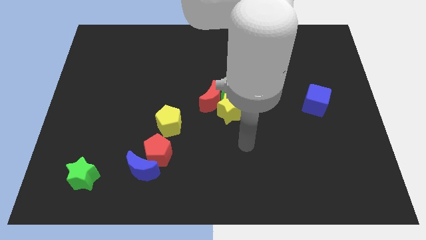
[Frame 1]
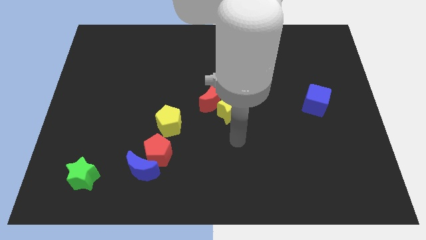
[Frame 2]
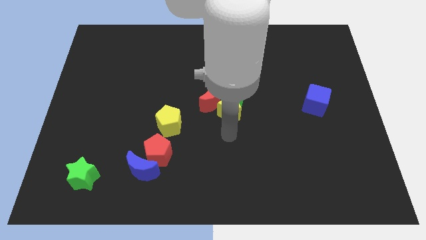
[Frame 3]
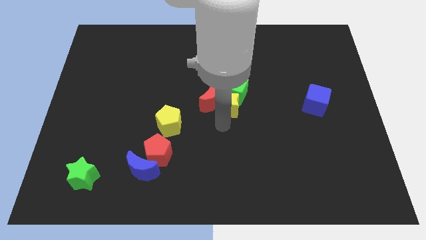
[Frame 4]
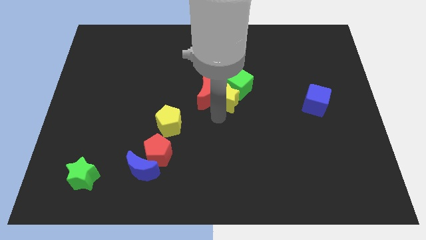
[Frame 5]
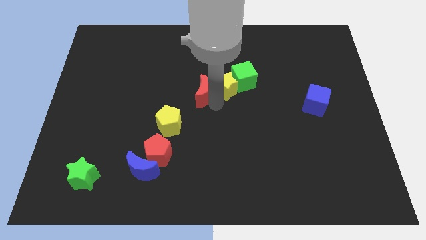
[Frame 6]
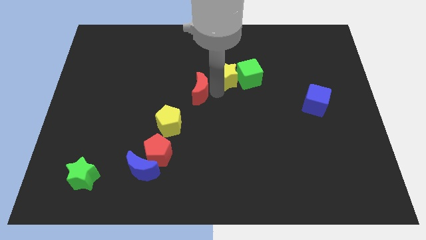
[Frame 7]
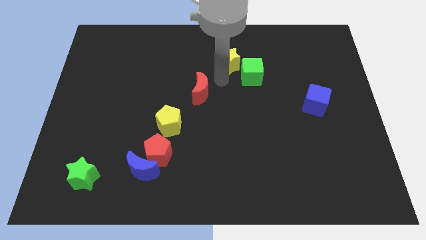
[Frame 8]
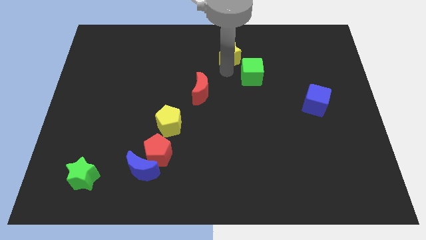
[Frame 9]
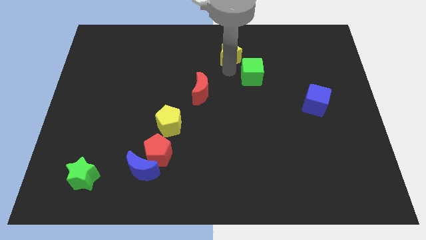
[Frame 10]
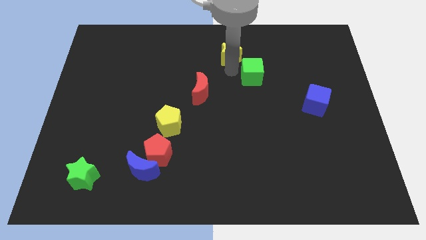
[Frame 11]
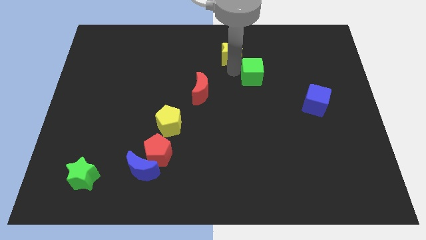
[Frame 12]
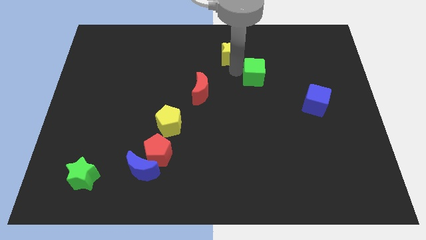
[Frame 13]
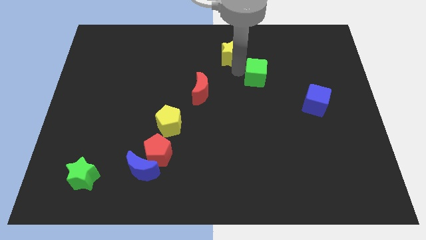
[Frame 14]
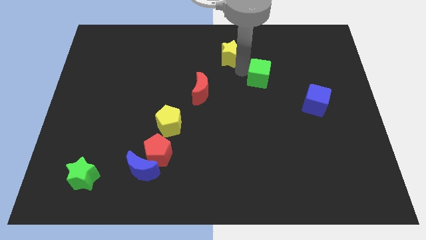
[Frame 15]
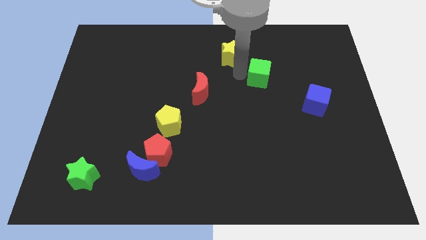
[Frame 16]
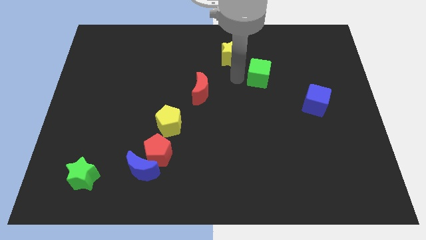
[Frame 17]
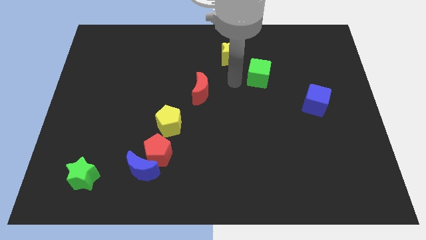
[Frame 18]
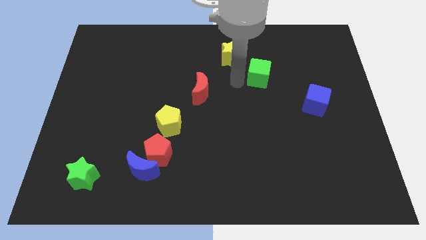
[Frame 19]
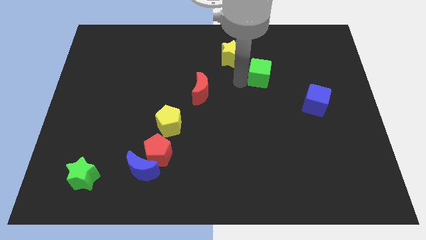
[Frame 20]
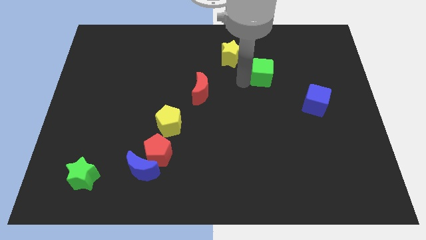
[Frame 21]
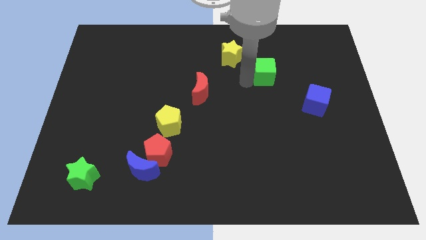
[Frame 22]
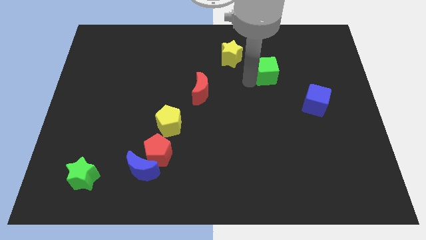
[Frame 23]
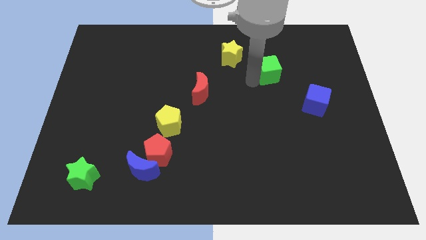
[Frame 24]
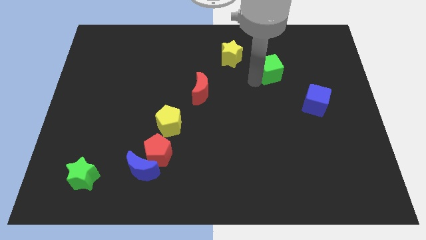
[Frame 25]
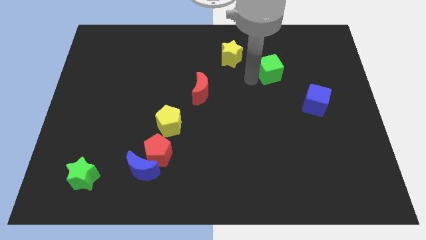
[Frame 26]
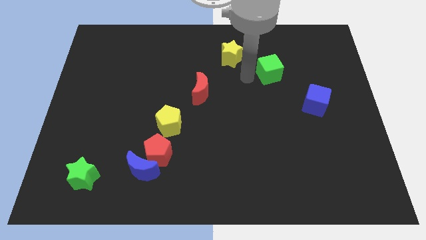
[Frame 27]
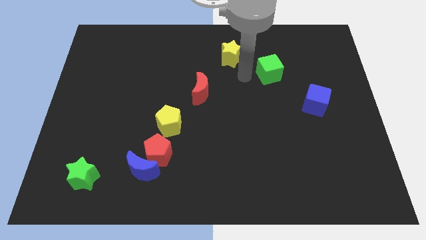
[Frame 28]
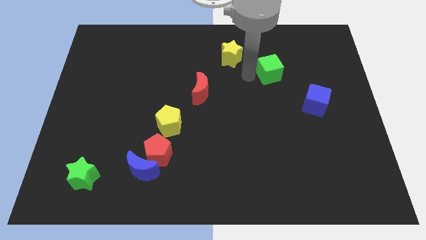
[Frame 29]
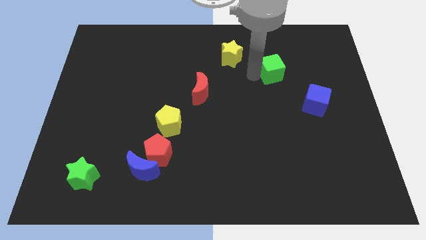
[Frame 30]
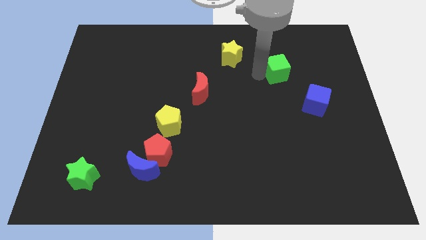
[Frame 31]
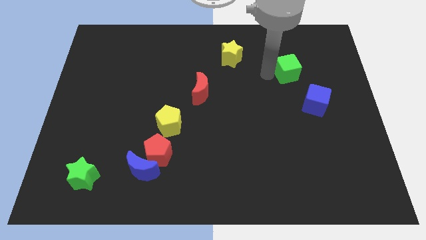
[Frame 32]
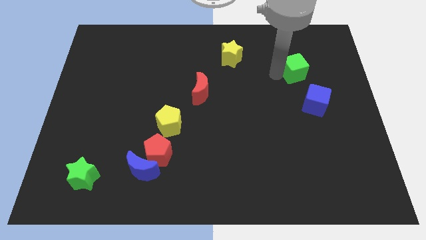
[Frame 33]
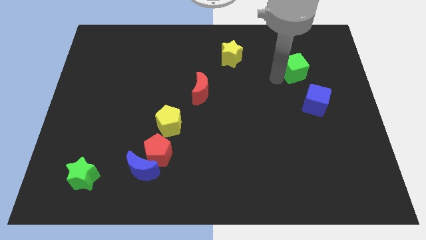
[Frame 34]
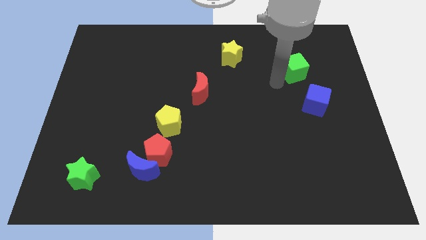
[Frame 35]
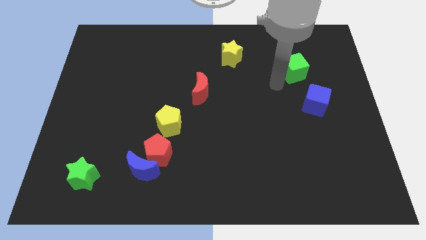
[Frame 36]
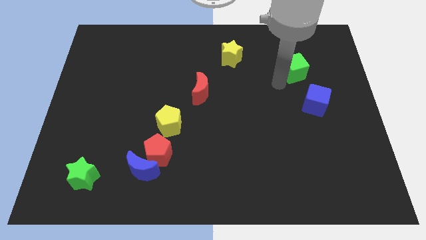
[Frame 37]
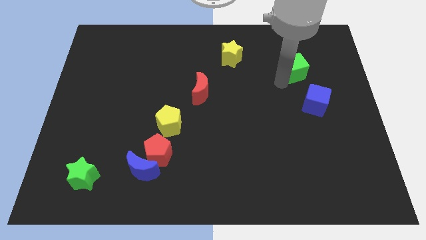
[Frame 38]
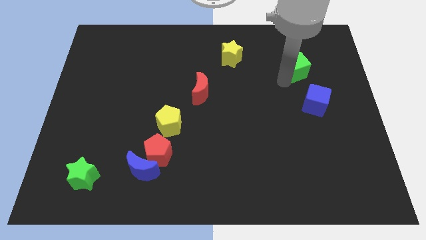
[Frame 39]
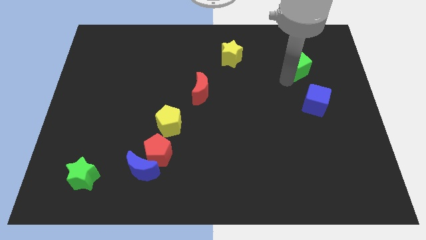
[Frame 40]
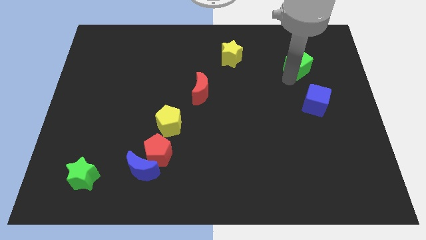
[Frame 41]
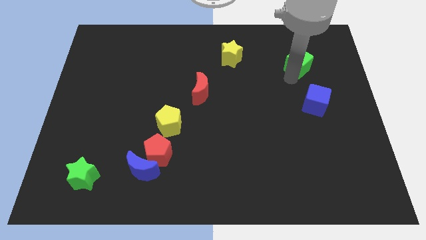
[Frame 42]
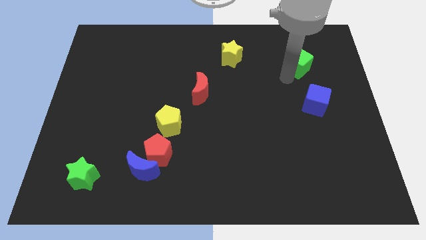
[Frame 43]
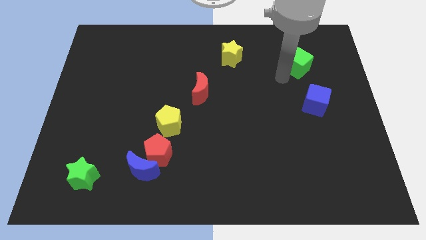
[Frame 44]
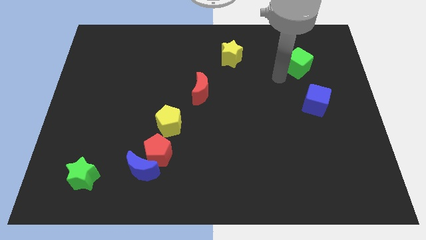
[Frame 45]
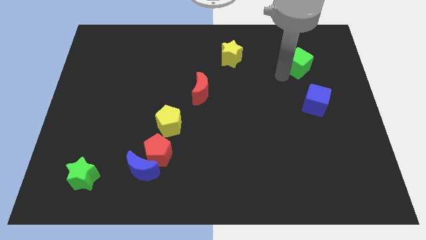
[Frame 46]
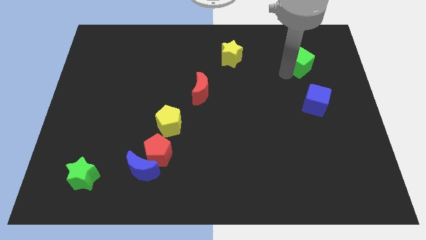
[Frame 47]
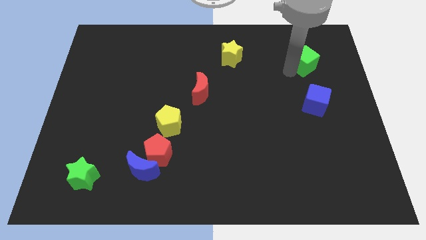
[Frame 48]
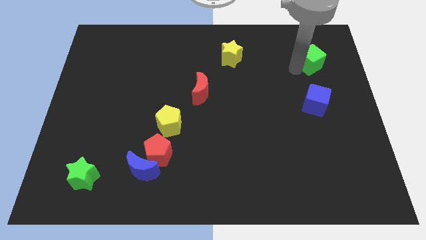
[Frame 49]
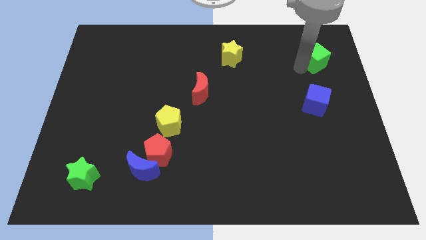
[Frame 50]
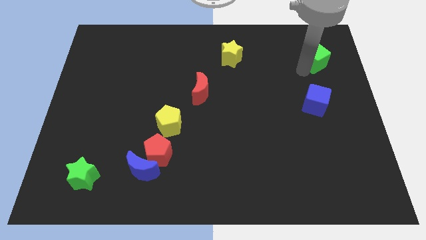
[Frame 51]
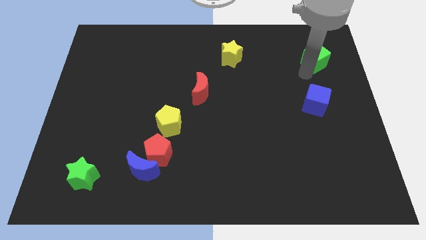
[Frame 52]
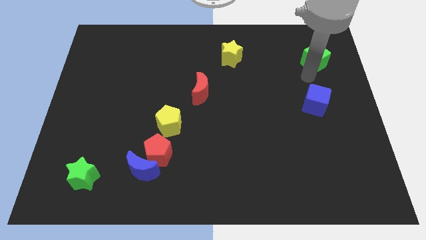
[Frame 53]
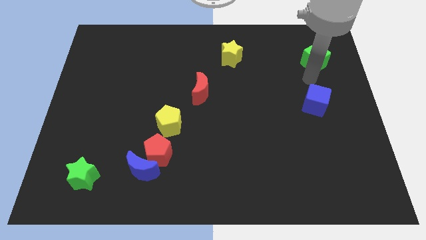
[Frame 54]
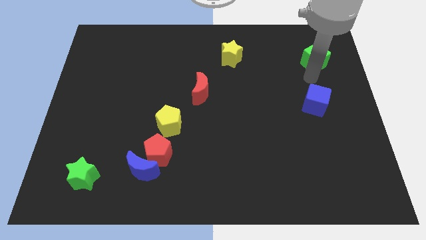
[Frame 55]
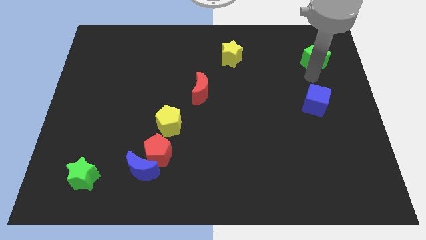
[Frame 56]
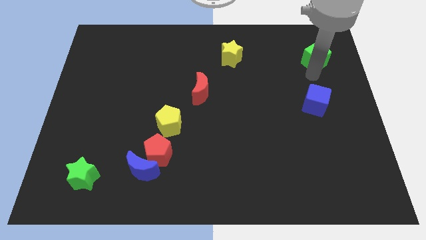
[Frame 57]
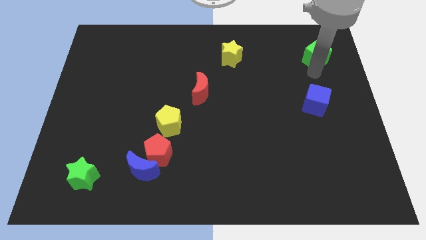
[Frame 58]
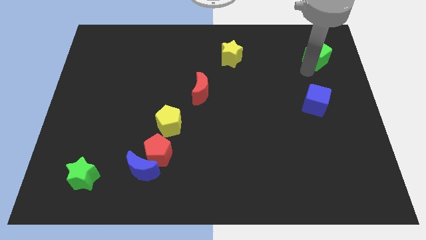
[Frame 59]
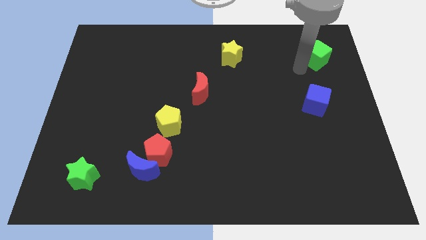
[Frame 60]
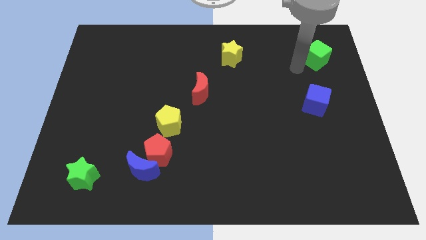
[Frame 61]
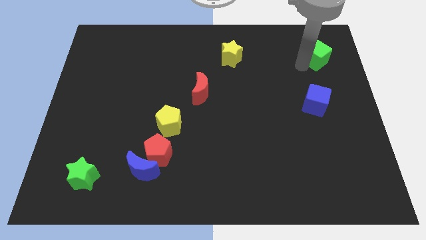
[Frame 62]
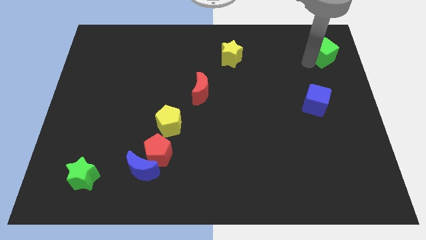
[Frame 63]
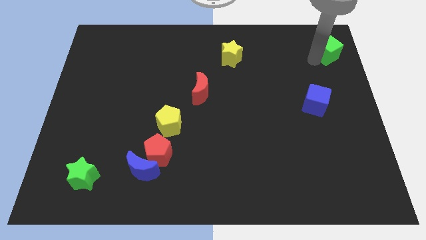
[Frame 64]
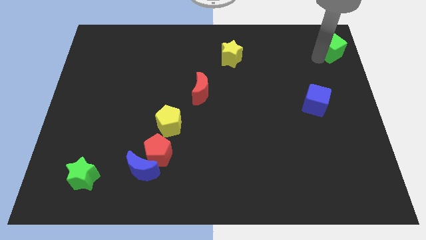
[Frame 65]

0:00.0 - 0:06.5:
move the green cube to the upper right corner

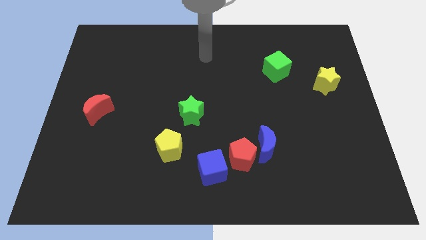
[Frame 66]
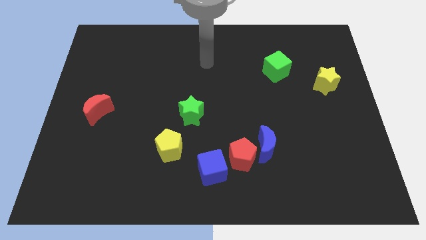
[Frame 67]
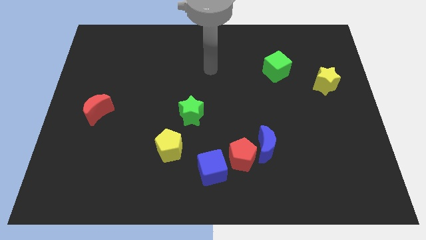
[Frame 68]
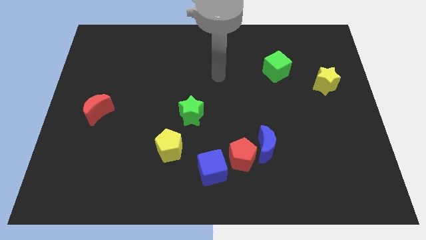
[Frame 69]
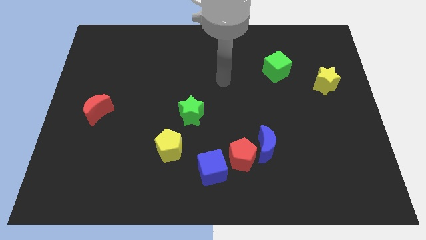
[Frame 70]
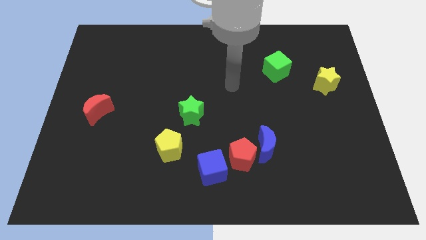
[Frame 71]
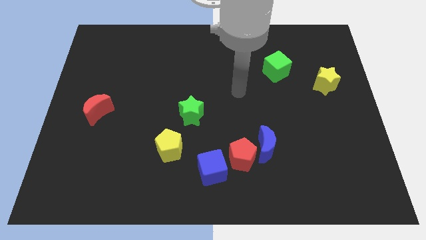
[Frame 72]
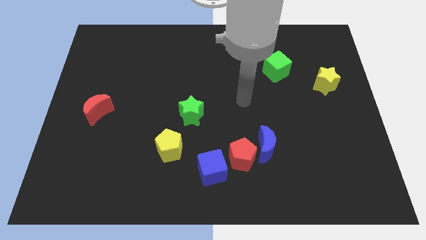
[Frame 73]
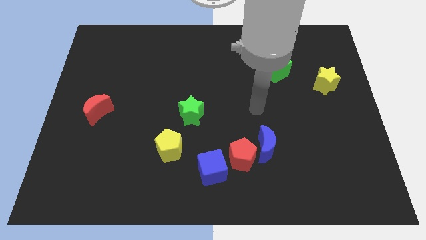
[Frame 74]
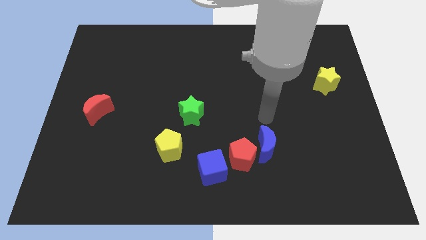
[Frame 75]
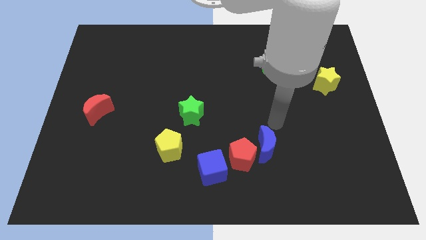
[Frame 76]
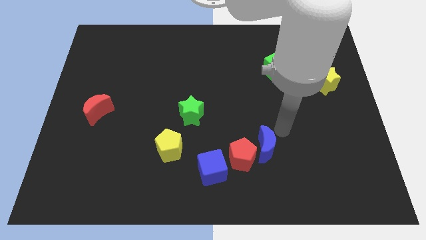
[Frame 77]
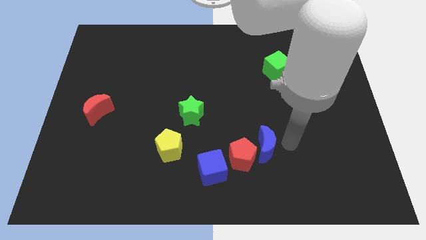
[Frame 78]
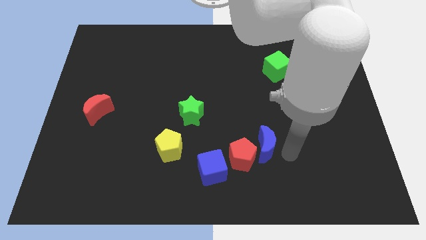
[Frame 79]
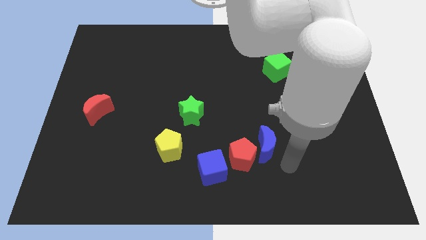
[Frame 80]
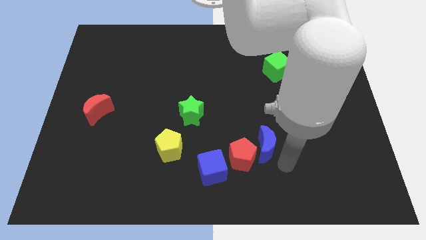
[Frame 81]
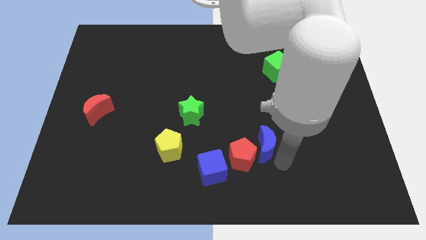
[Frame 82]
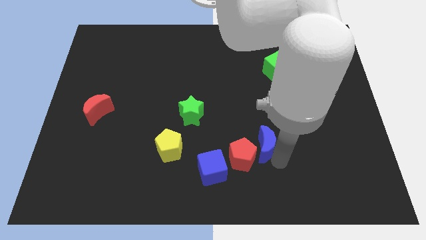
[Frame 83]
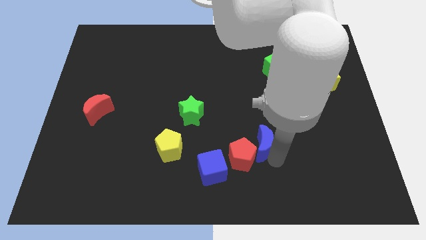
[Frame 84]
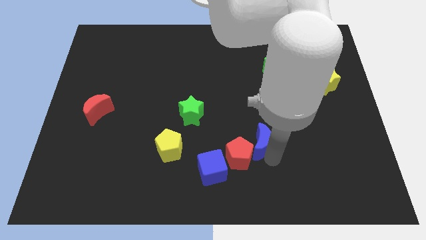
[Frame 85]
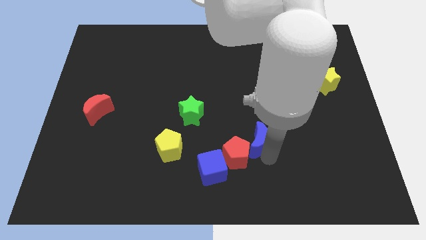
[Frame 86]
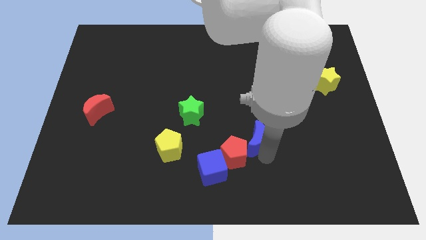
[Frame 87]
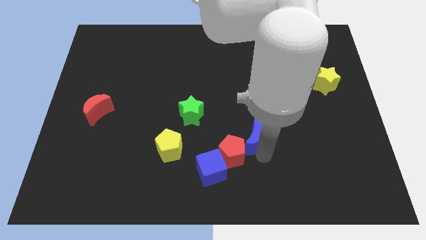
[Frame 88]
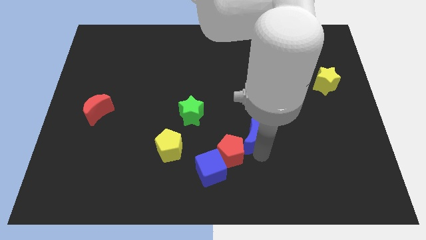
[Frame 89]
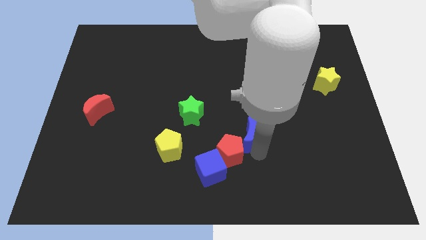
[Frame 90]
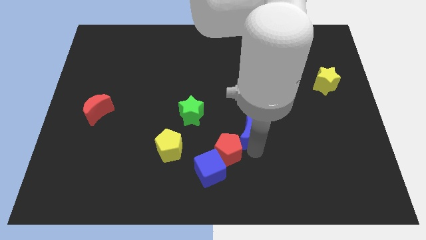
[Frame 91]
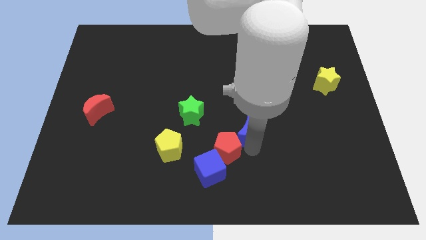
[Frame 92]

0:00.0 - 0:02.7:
move the blue moon to the center of the board
